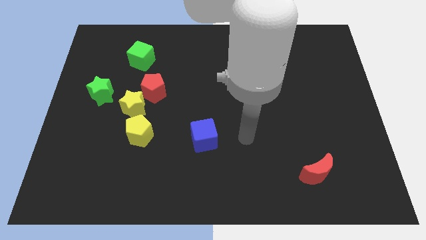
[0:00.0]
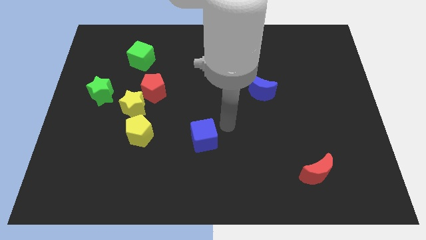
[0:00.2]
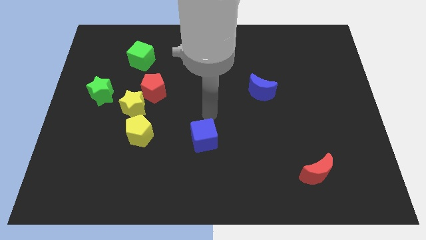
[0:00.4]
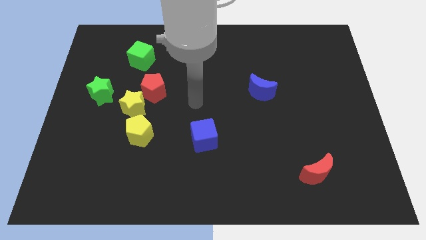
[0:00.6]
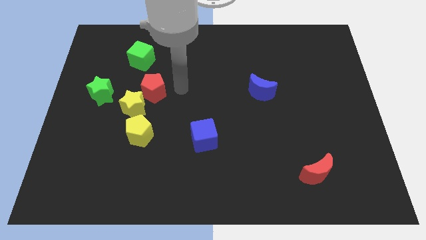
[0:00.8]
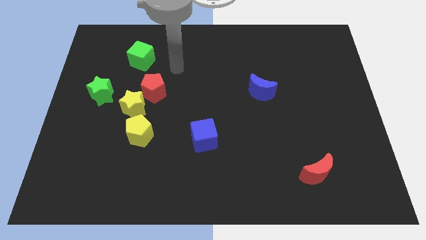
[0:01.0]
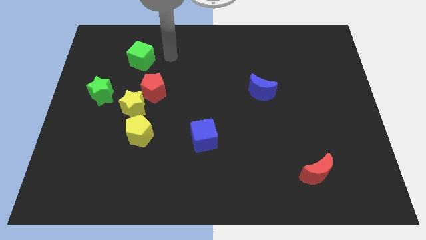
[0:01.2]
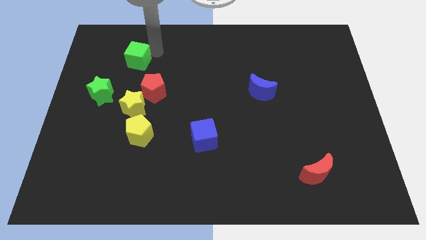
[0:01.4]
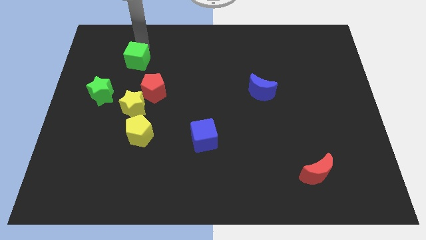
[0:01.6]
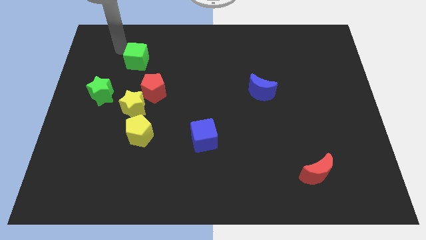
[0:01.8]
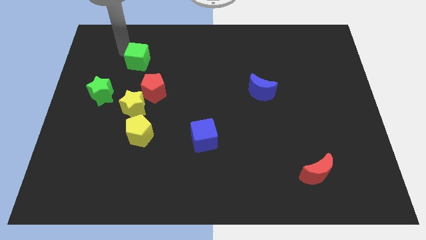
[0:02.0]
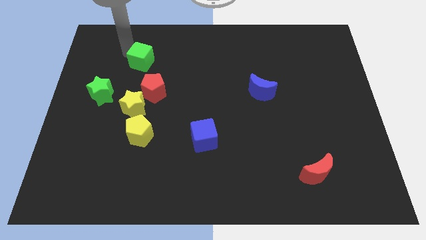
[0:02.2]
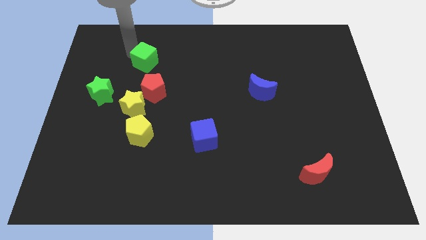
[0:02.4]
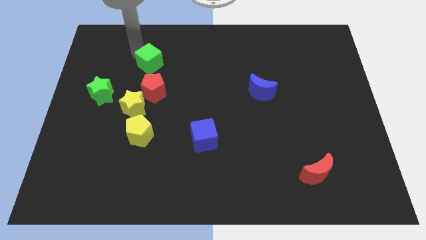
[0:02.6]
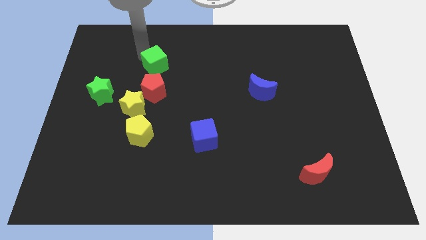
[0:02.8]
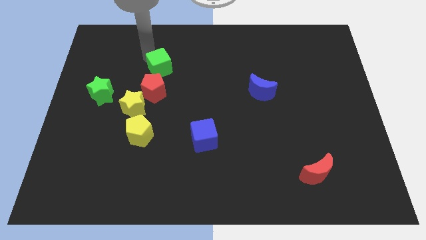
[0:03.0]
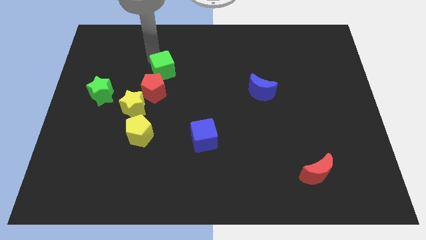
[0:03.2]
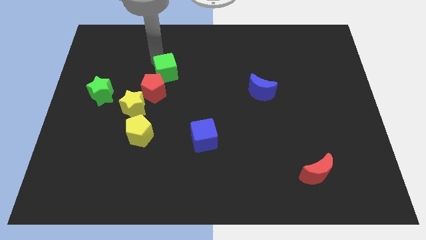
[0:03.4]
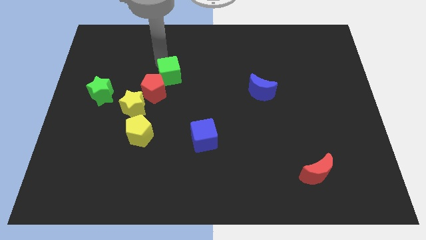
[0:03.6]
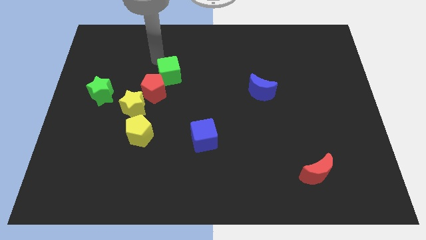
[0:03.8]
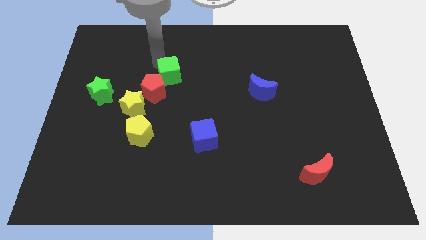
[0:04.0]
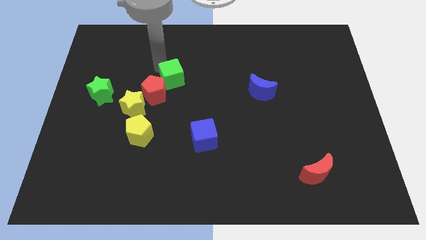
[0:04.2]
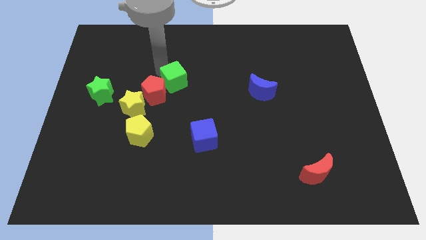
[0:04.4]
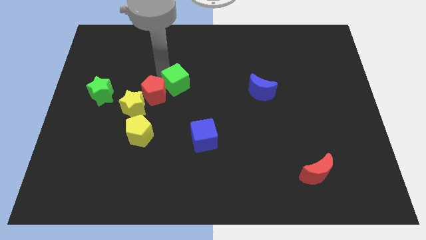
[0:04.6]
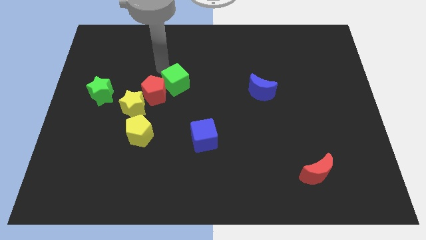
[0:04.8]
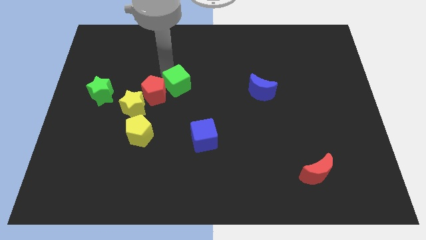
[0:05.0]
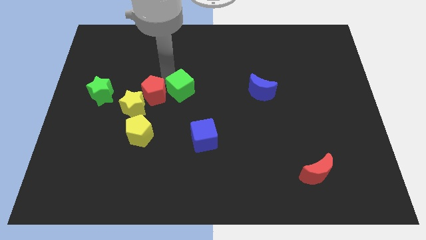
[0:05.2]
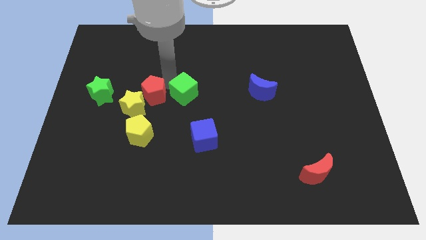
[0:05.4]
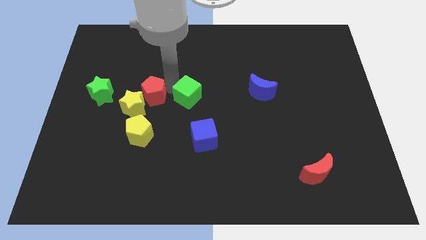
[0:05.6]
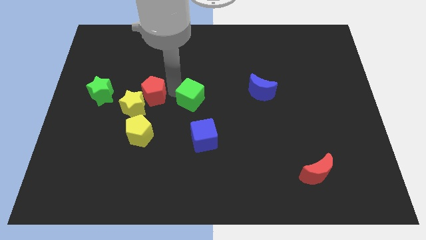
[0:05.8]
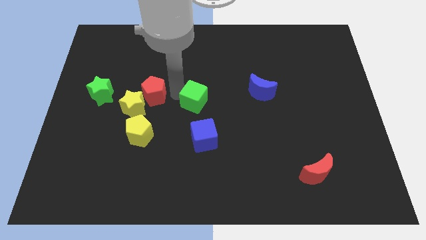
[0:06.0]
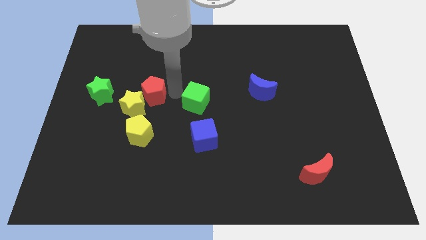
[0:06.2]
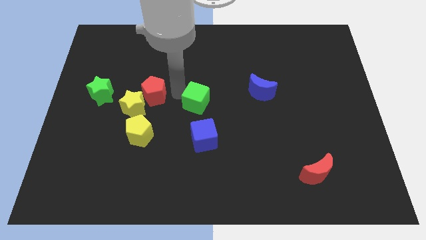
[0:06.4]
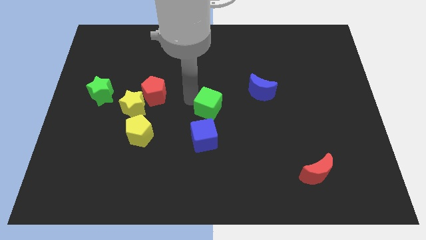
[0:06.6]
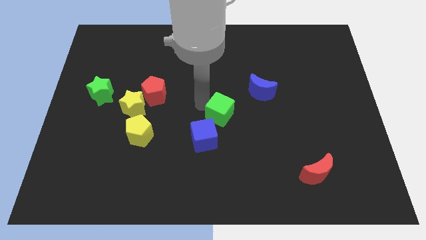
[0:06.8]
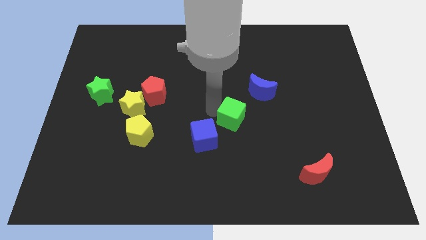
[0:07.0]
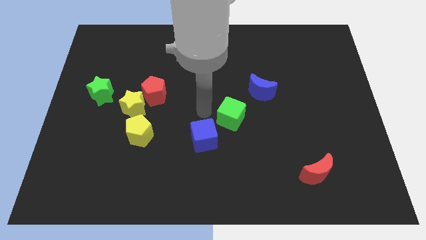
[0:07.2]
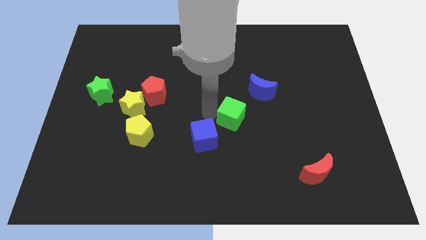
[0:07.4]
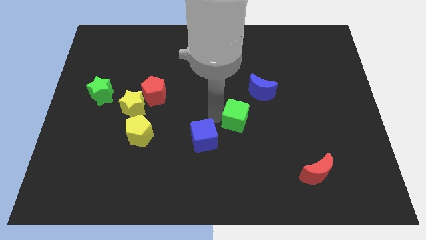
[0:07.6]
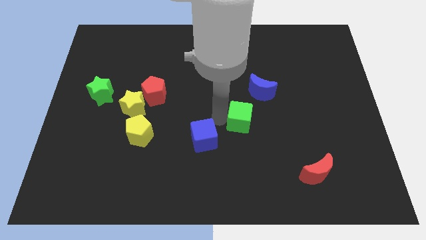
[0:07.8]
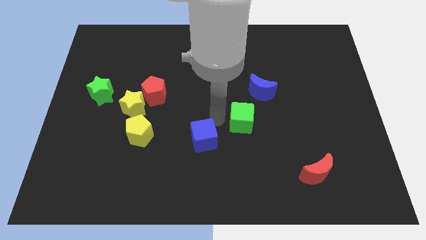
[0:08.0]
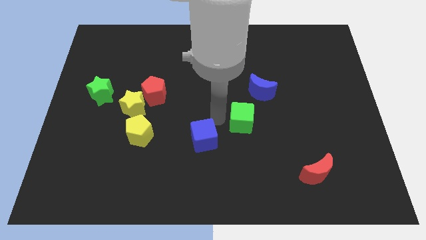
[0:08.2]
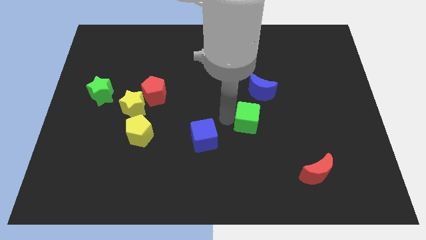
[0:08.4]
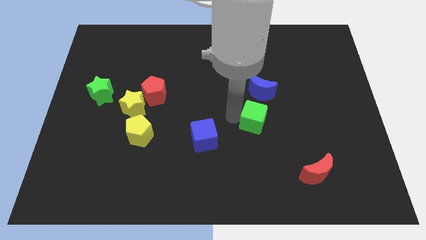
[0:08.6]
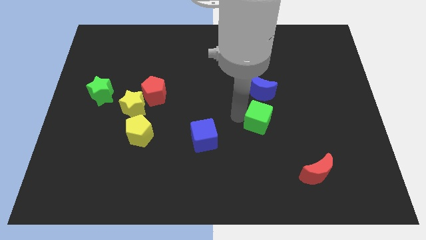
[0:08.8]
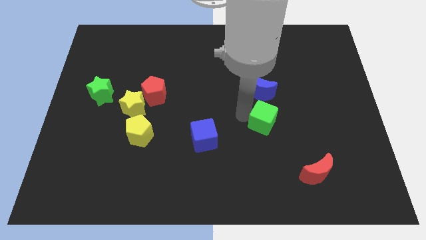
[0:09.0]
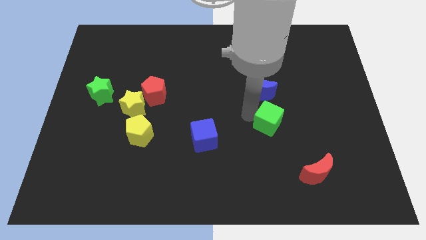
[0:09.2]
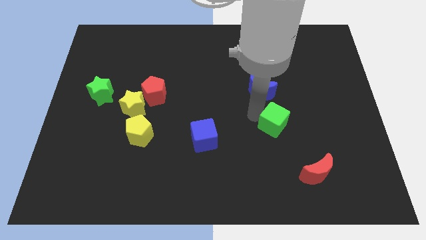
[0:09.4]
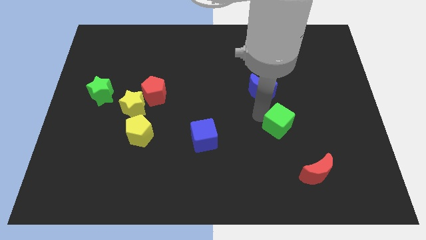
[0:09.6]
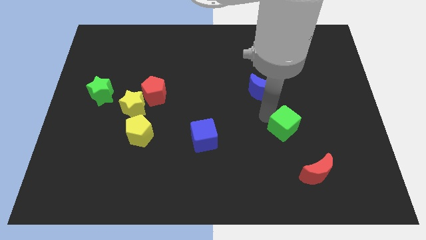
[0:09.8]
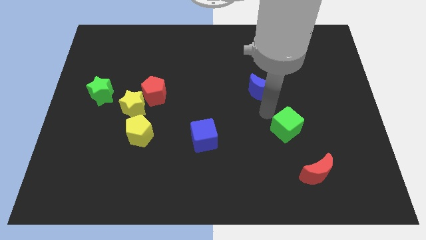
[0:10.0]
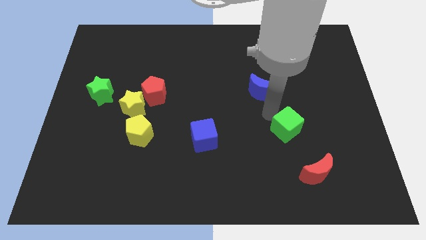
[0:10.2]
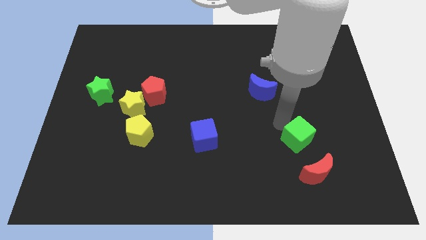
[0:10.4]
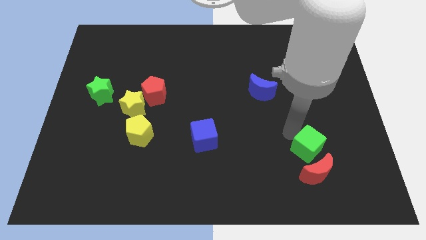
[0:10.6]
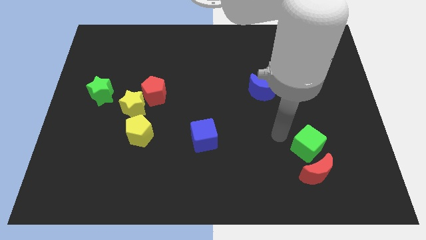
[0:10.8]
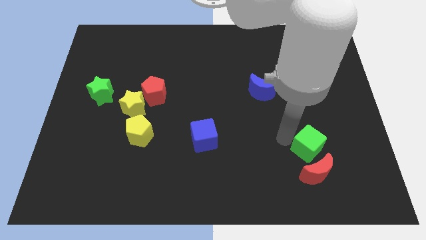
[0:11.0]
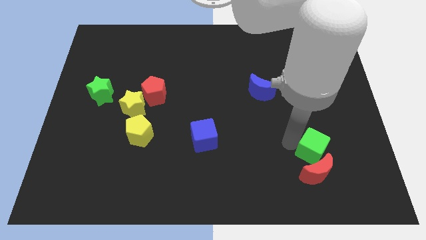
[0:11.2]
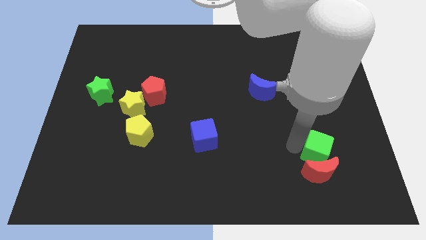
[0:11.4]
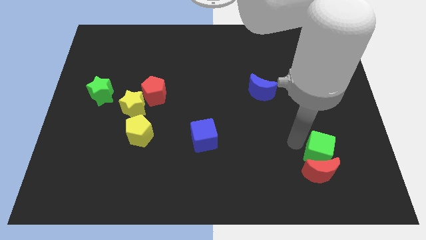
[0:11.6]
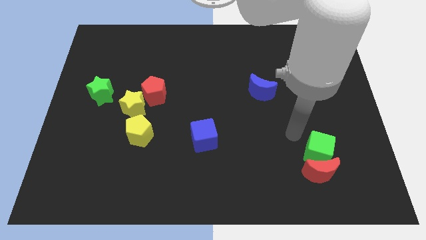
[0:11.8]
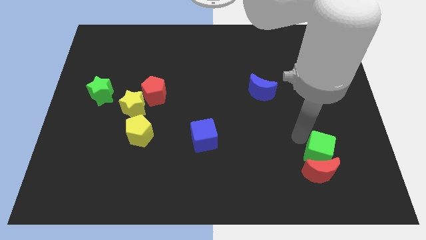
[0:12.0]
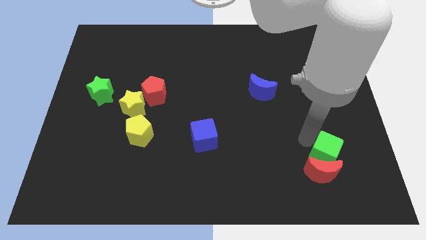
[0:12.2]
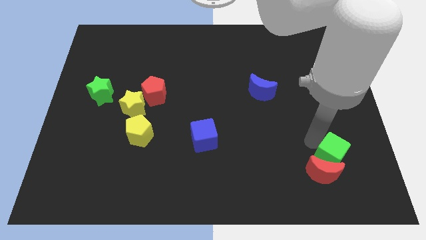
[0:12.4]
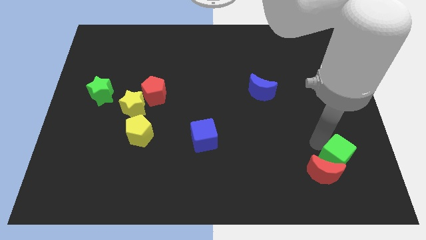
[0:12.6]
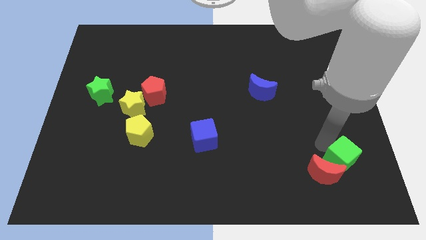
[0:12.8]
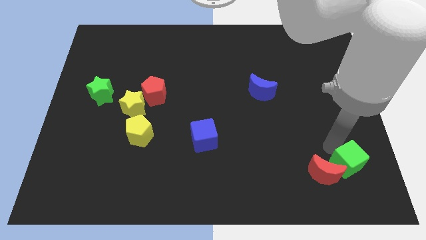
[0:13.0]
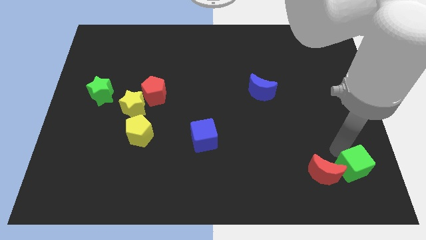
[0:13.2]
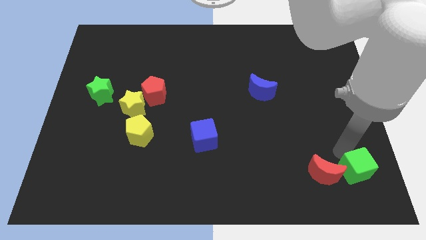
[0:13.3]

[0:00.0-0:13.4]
put the green cube to the lower right corner
